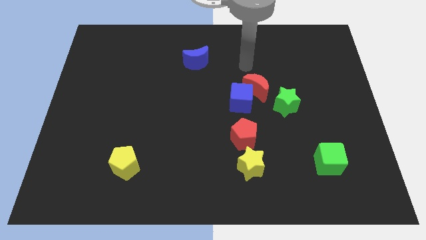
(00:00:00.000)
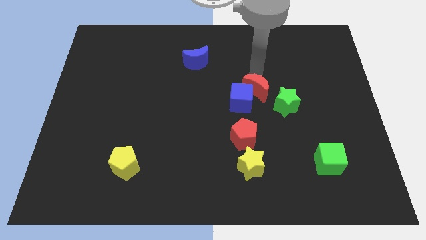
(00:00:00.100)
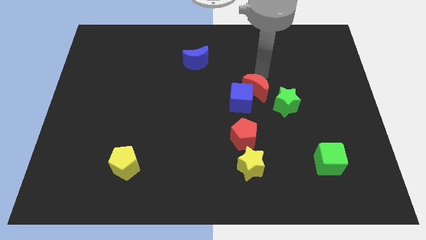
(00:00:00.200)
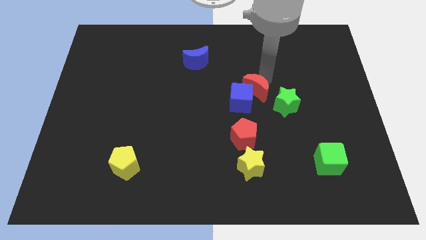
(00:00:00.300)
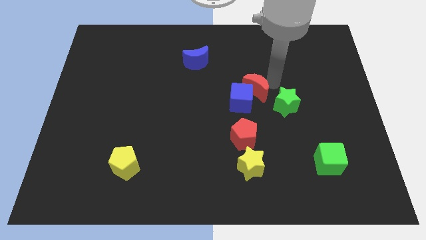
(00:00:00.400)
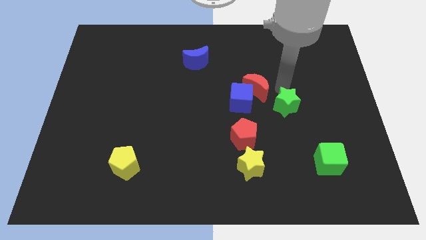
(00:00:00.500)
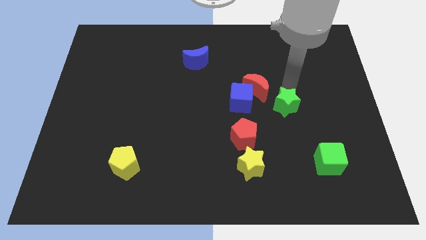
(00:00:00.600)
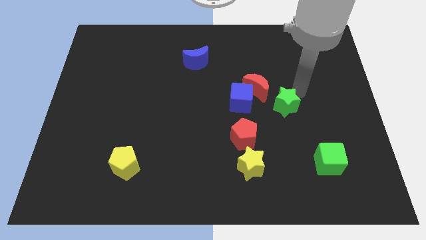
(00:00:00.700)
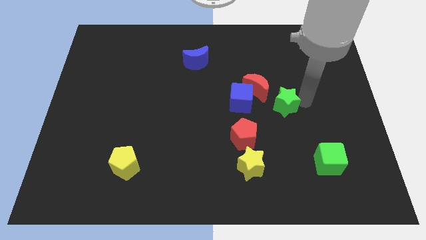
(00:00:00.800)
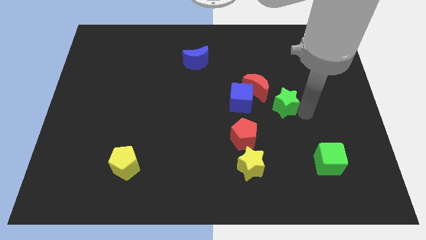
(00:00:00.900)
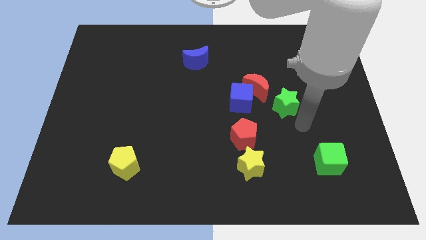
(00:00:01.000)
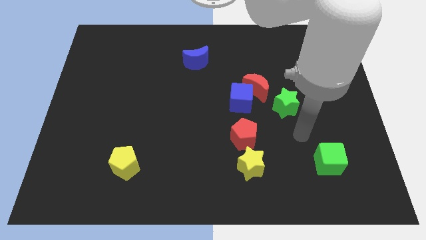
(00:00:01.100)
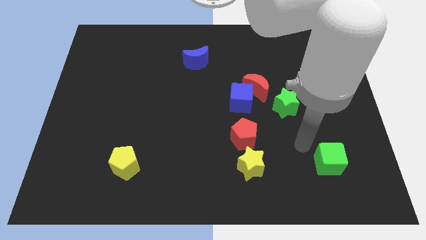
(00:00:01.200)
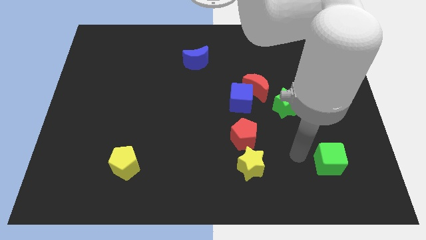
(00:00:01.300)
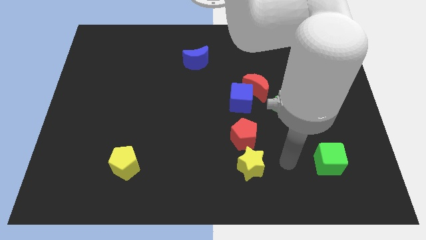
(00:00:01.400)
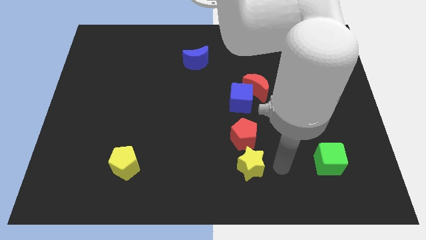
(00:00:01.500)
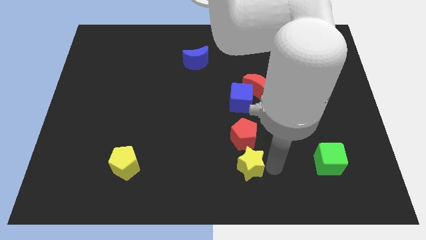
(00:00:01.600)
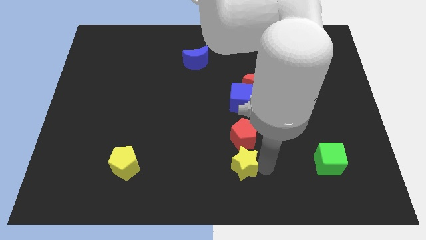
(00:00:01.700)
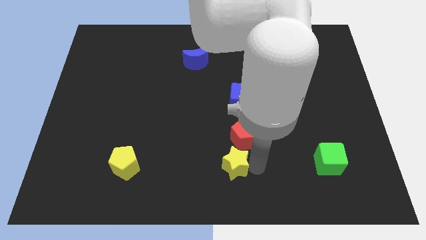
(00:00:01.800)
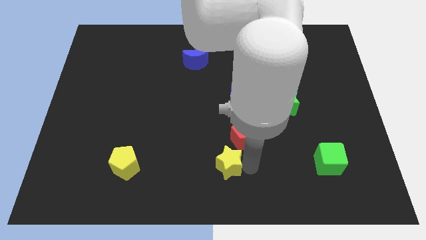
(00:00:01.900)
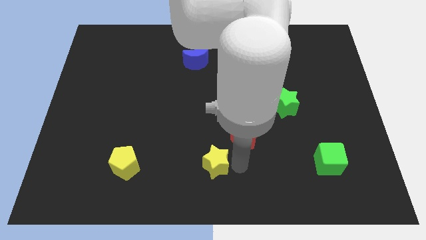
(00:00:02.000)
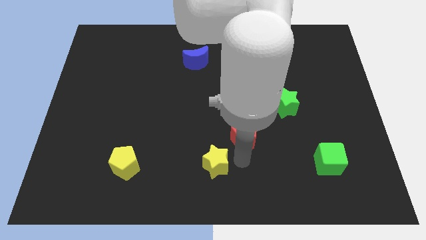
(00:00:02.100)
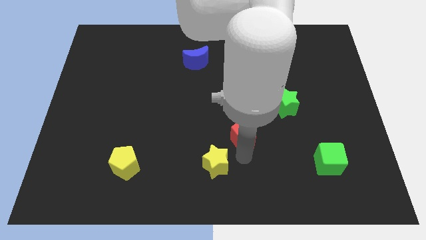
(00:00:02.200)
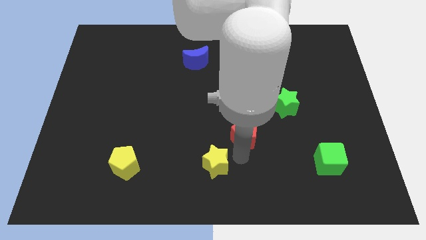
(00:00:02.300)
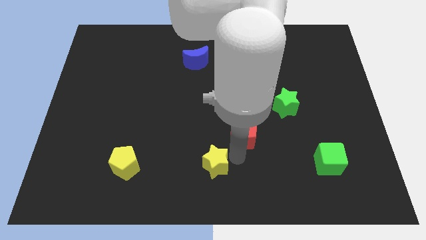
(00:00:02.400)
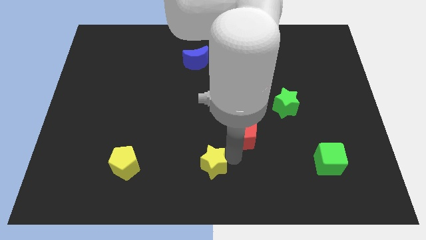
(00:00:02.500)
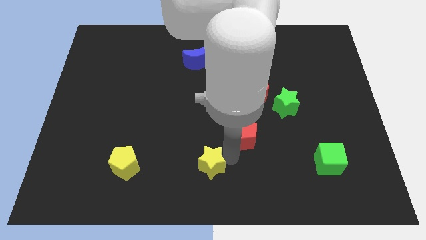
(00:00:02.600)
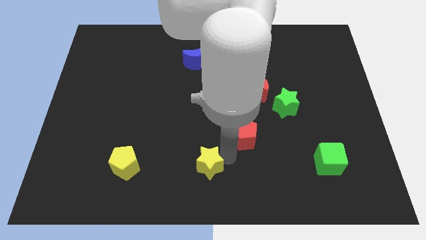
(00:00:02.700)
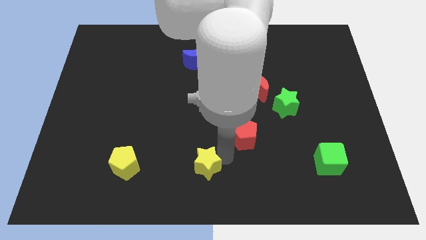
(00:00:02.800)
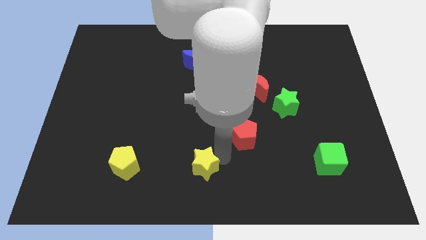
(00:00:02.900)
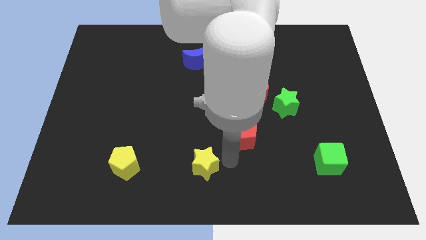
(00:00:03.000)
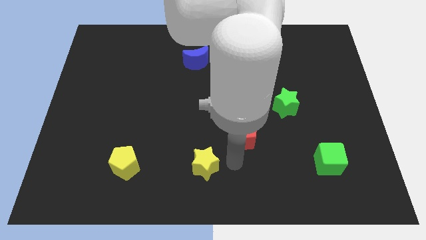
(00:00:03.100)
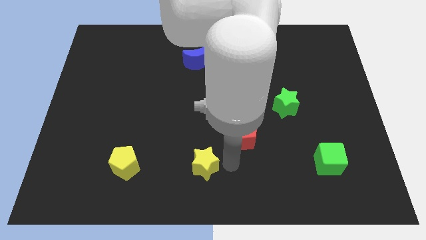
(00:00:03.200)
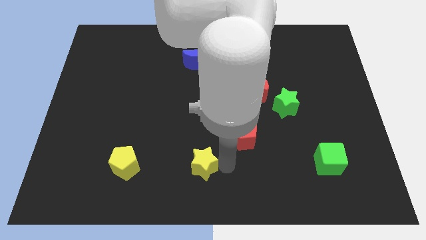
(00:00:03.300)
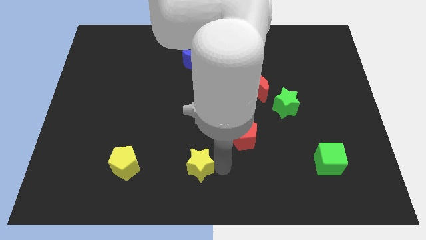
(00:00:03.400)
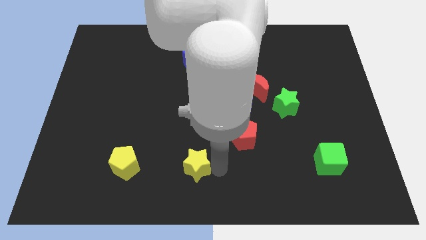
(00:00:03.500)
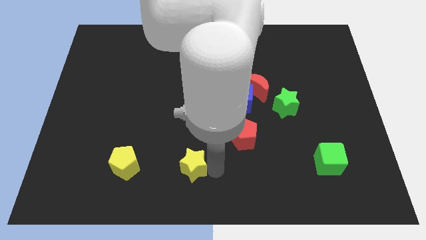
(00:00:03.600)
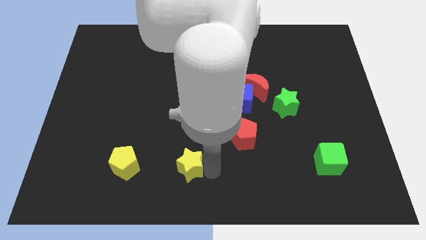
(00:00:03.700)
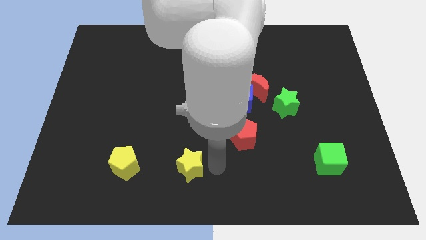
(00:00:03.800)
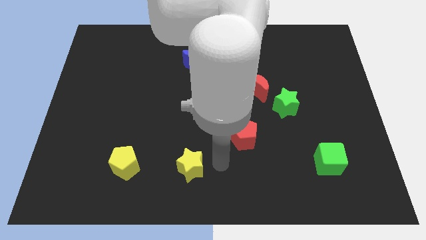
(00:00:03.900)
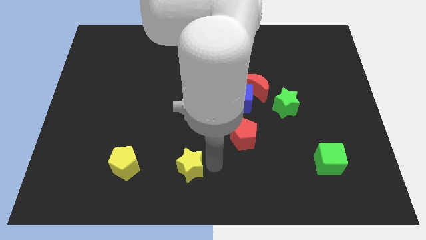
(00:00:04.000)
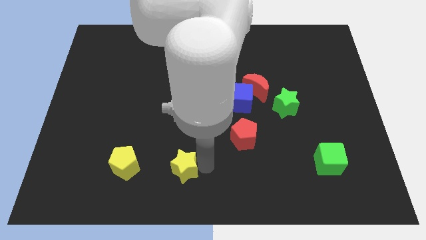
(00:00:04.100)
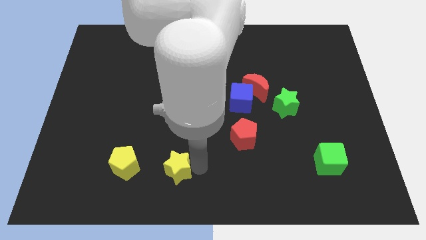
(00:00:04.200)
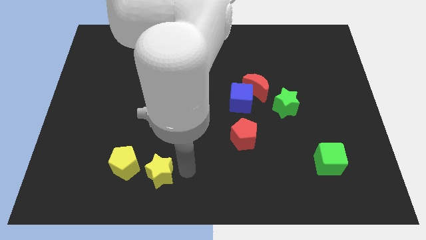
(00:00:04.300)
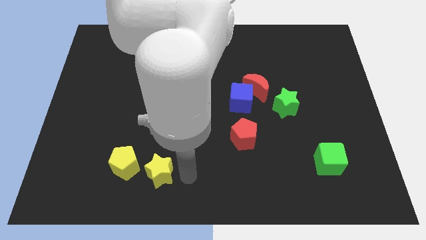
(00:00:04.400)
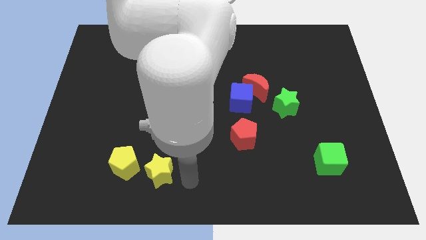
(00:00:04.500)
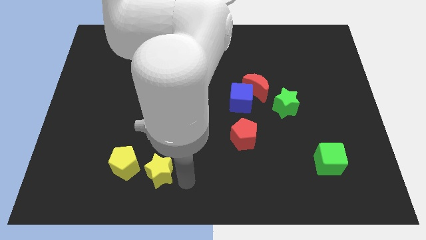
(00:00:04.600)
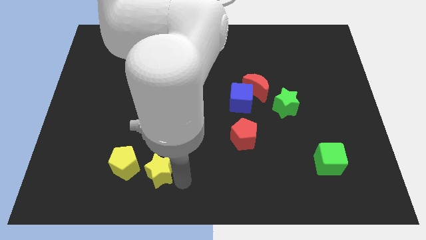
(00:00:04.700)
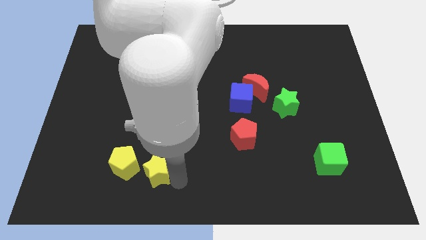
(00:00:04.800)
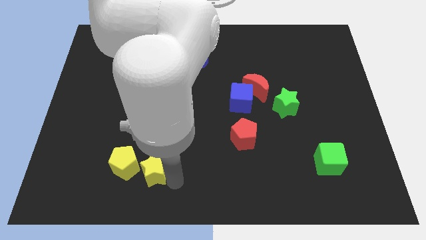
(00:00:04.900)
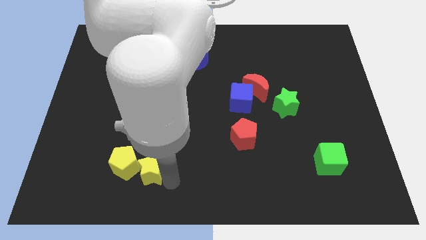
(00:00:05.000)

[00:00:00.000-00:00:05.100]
push the yellow star towards the yellow pentagon

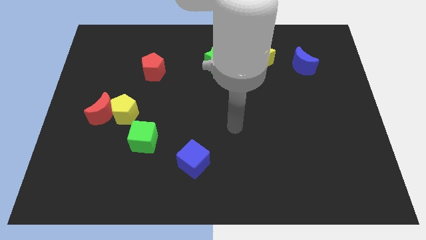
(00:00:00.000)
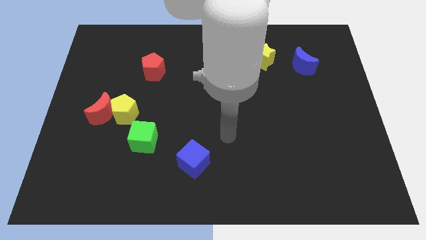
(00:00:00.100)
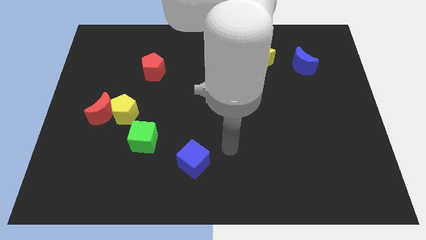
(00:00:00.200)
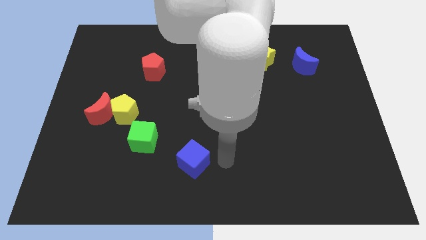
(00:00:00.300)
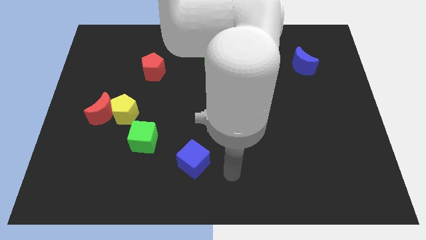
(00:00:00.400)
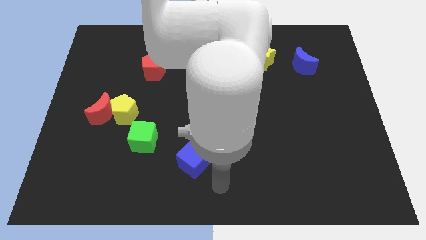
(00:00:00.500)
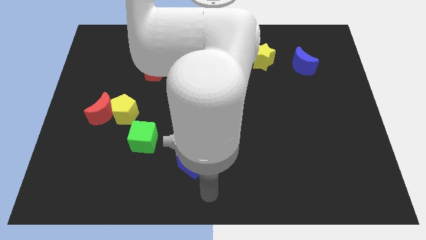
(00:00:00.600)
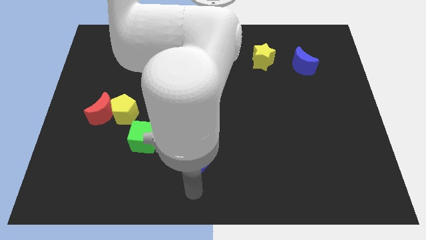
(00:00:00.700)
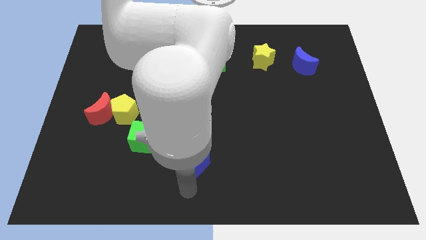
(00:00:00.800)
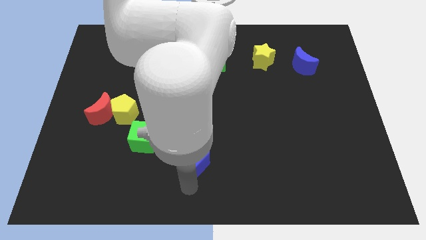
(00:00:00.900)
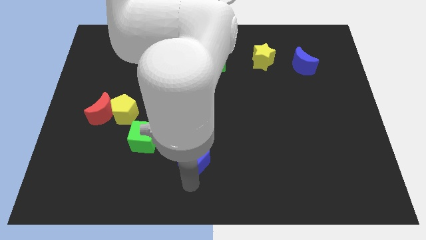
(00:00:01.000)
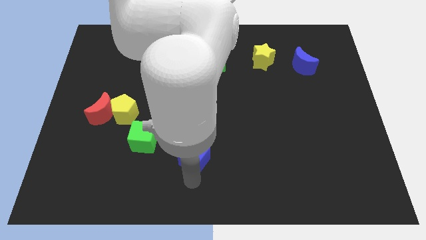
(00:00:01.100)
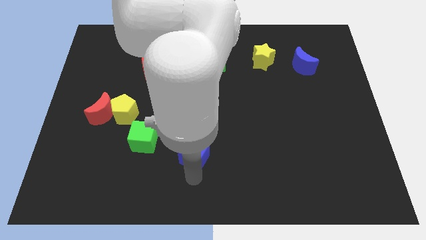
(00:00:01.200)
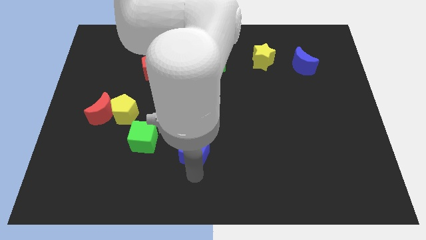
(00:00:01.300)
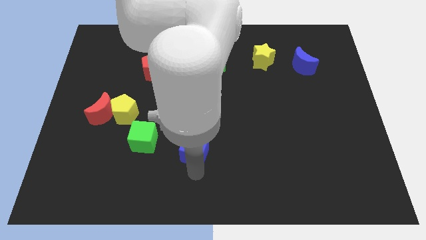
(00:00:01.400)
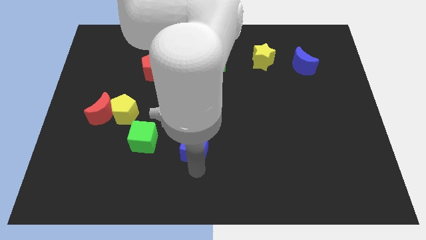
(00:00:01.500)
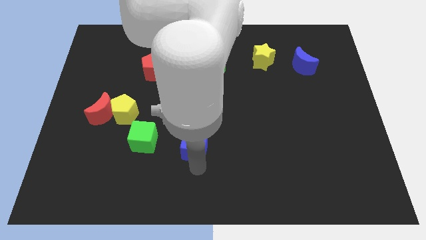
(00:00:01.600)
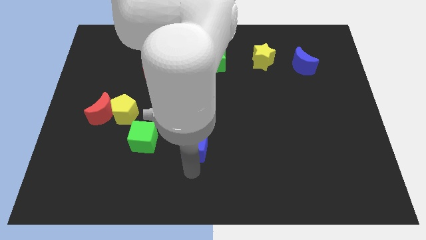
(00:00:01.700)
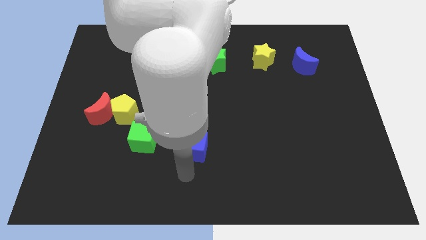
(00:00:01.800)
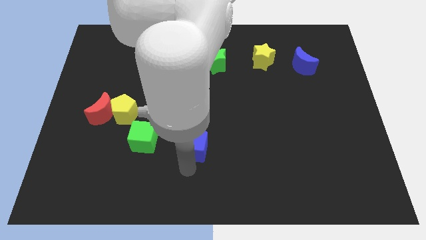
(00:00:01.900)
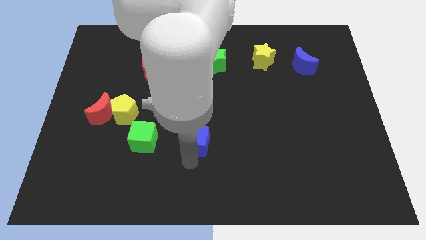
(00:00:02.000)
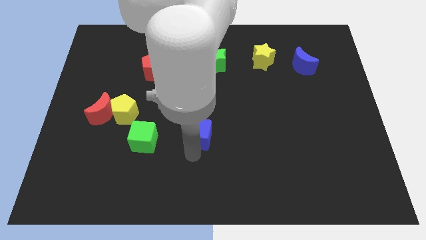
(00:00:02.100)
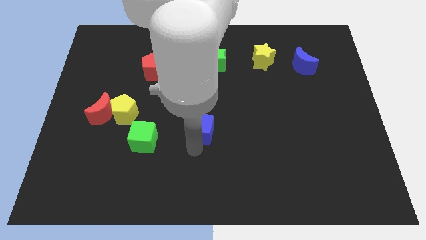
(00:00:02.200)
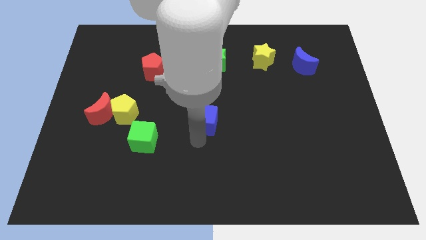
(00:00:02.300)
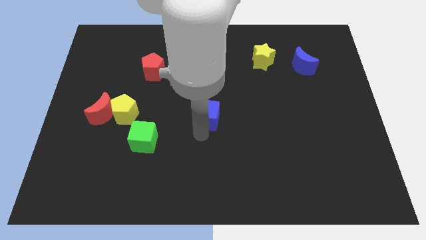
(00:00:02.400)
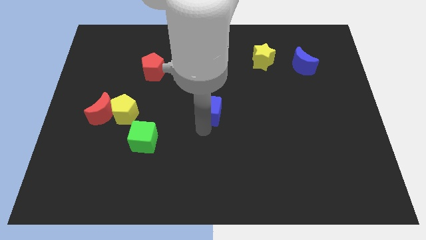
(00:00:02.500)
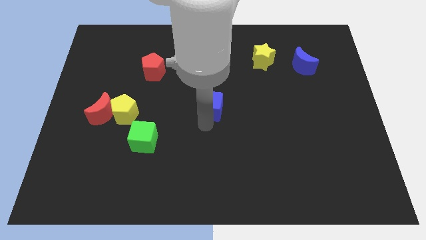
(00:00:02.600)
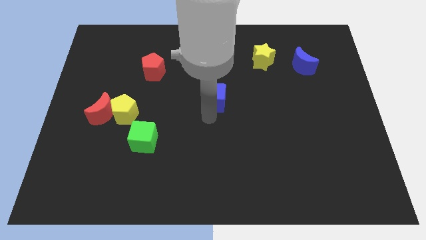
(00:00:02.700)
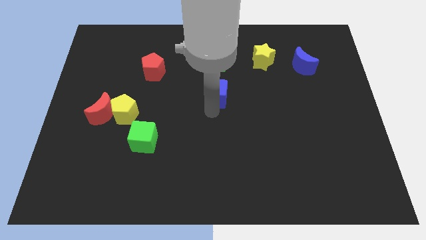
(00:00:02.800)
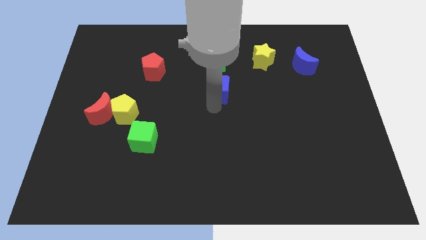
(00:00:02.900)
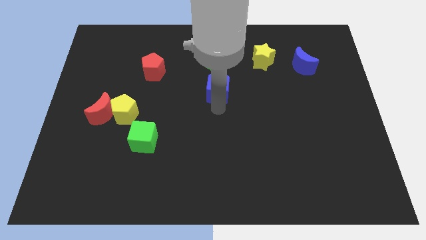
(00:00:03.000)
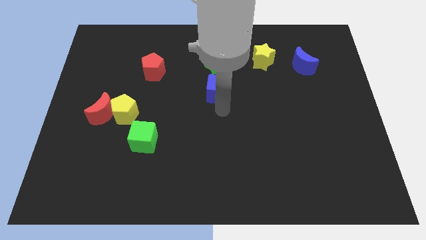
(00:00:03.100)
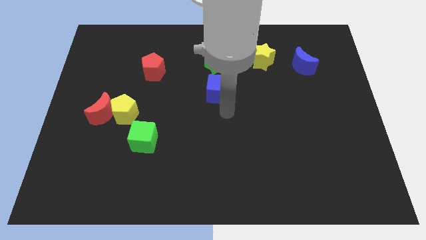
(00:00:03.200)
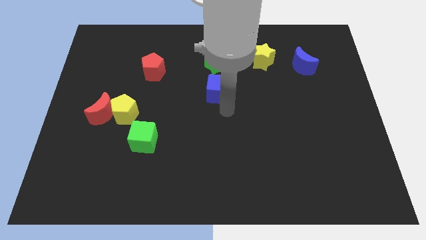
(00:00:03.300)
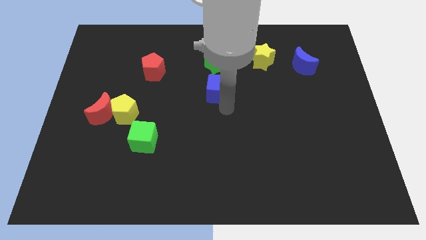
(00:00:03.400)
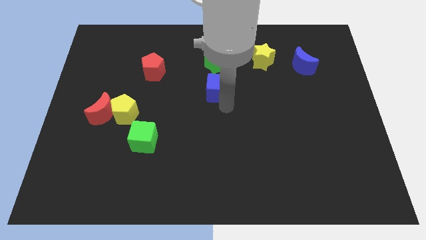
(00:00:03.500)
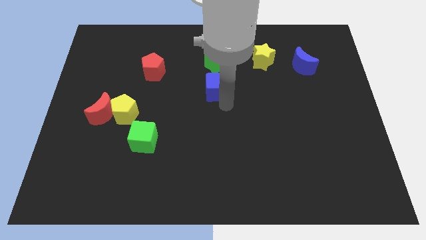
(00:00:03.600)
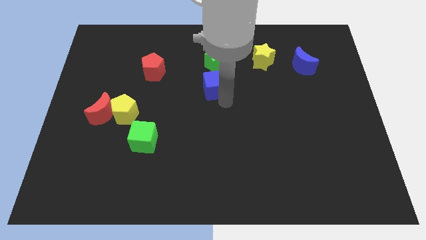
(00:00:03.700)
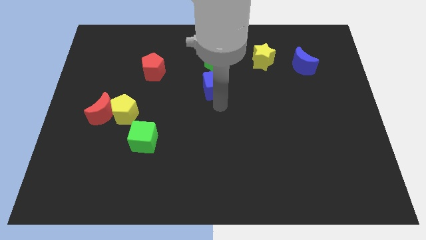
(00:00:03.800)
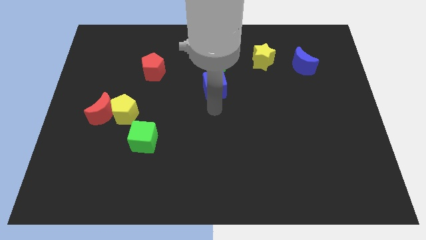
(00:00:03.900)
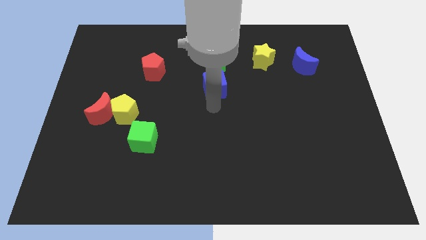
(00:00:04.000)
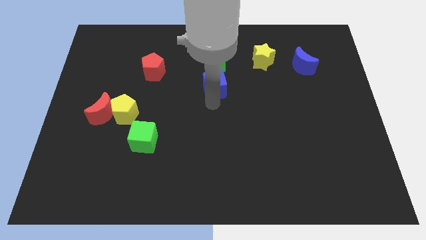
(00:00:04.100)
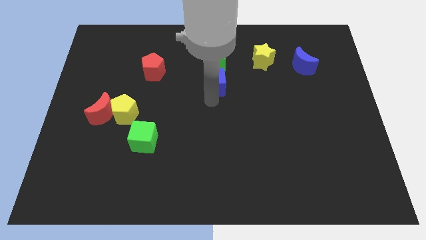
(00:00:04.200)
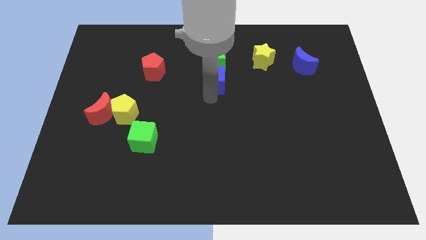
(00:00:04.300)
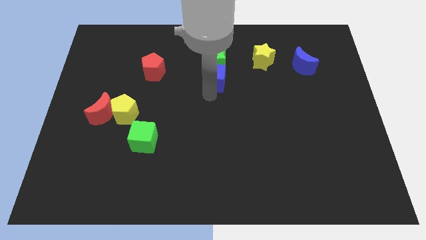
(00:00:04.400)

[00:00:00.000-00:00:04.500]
put the blue cube next to the green star
